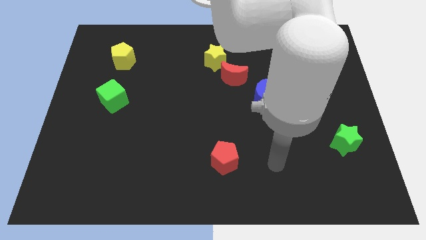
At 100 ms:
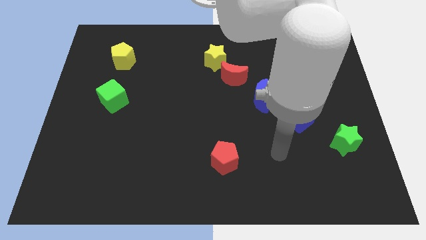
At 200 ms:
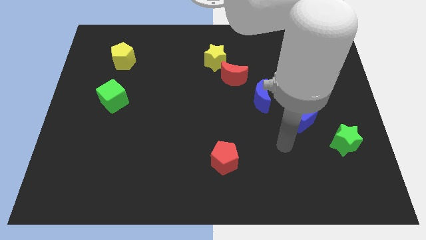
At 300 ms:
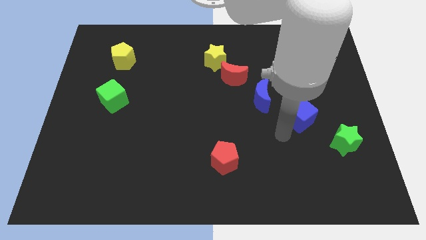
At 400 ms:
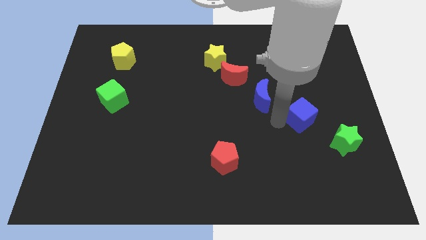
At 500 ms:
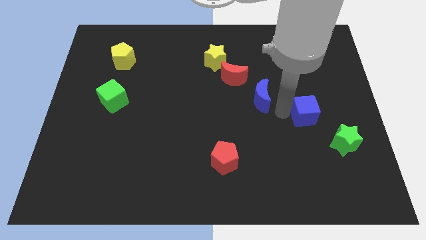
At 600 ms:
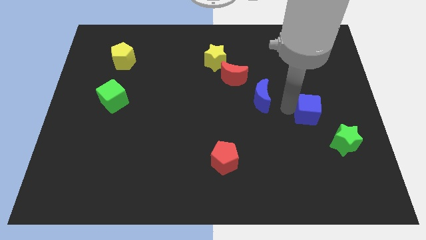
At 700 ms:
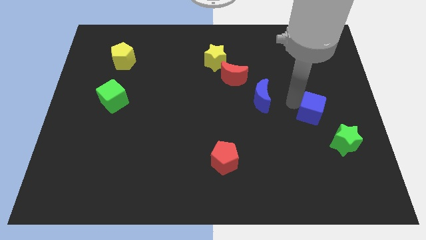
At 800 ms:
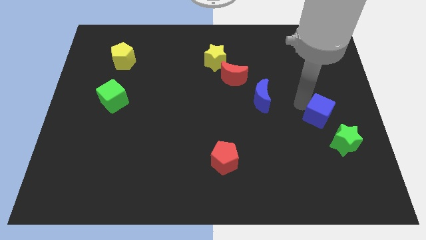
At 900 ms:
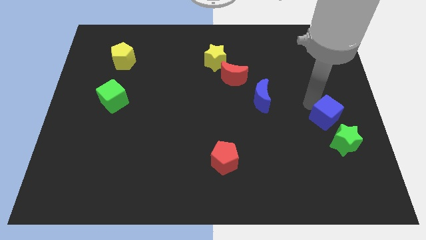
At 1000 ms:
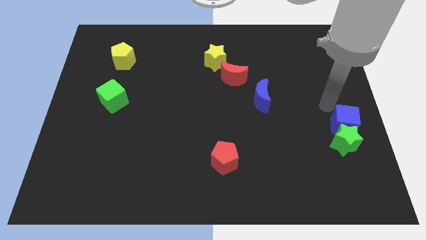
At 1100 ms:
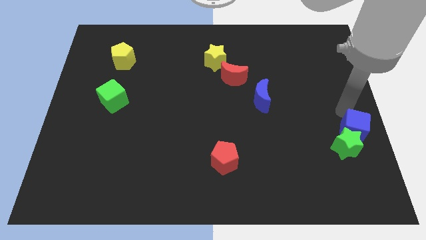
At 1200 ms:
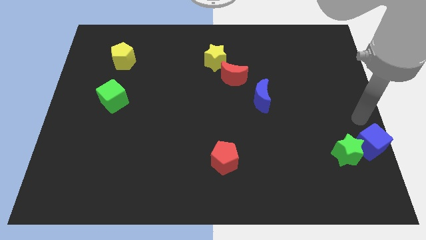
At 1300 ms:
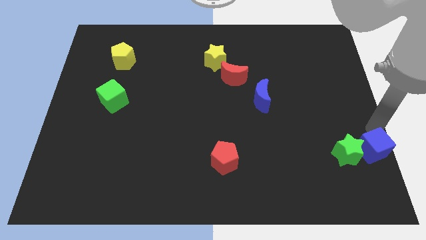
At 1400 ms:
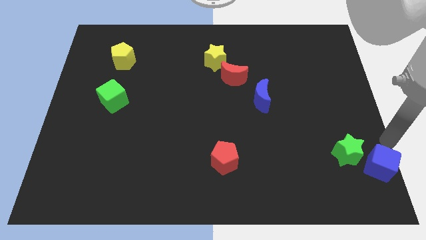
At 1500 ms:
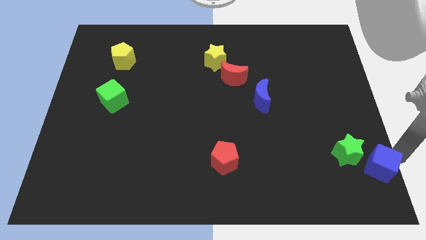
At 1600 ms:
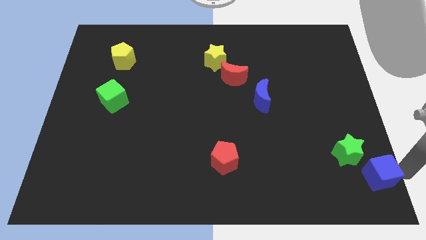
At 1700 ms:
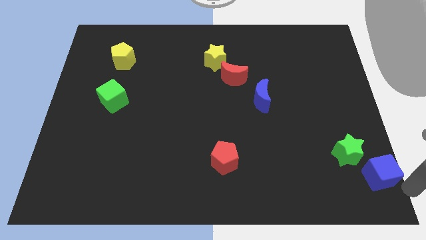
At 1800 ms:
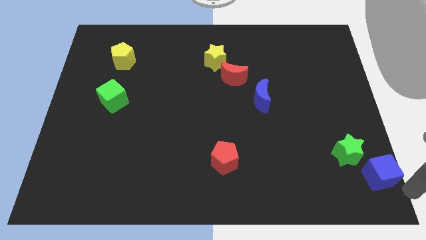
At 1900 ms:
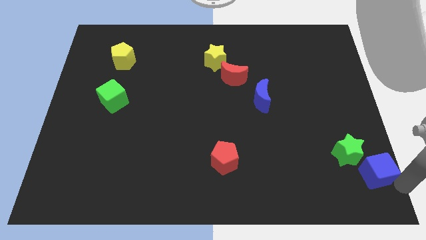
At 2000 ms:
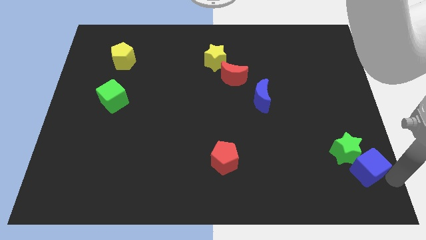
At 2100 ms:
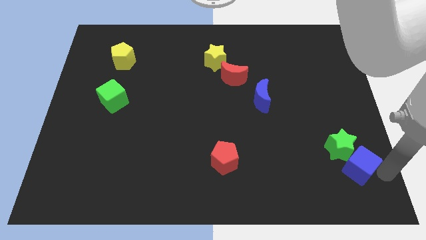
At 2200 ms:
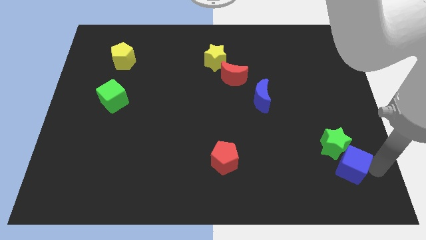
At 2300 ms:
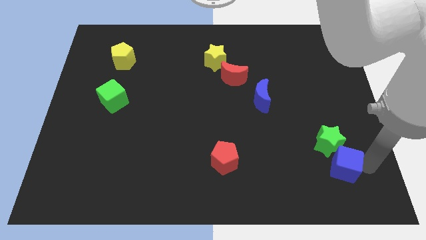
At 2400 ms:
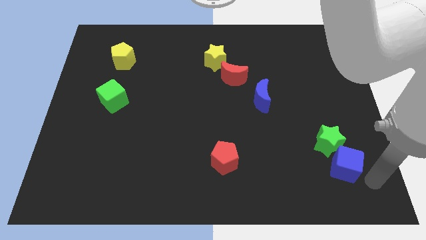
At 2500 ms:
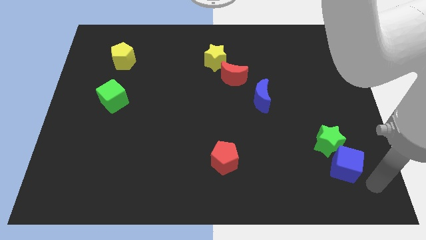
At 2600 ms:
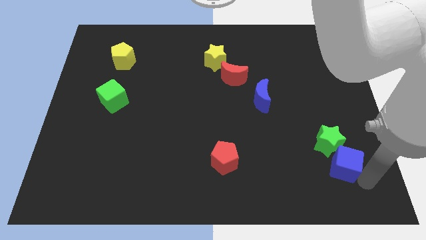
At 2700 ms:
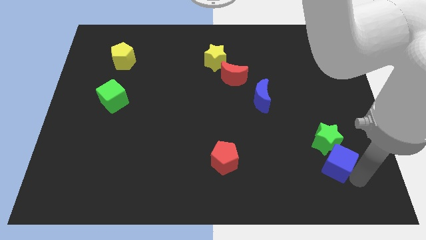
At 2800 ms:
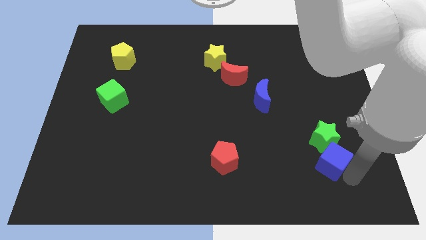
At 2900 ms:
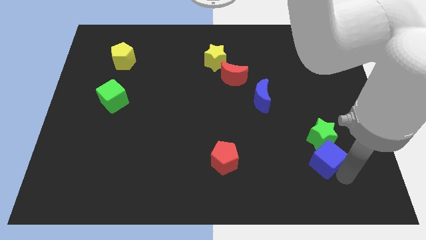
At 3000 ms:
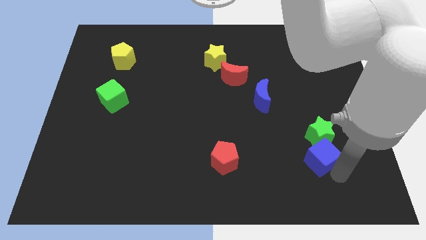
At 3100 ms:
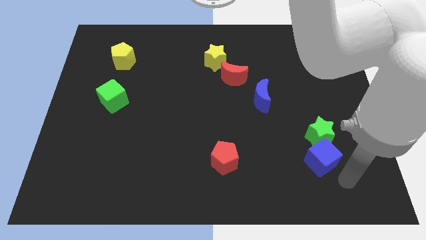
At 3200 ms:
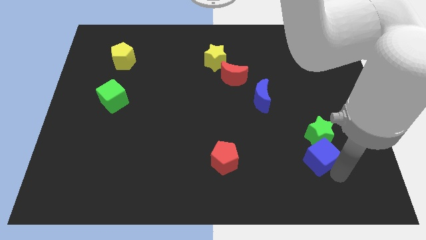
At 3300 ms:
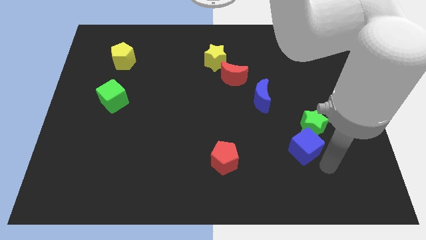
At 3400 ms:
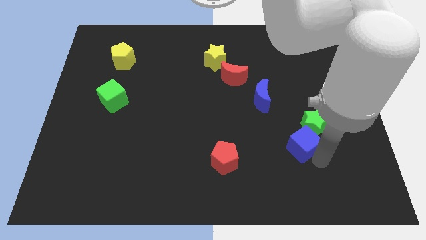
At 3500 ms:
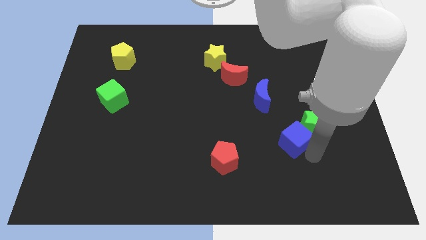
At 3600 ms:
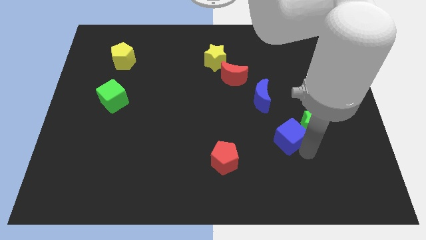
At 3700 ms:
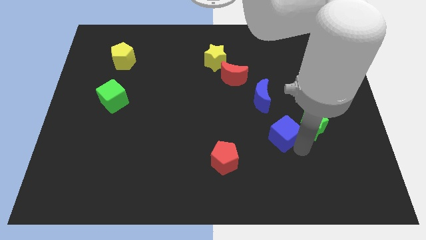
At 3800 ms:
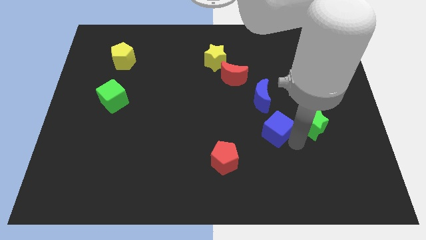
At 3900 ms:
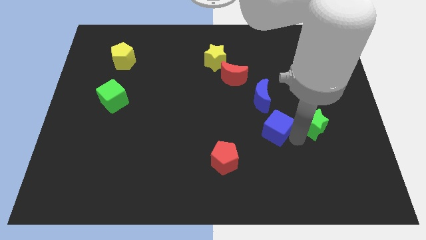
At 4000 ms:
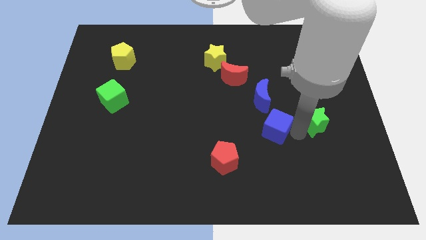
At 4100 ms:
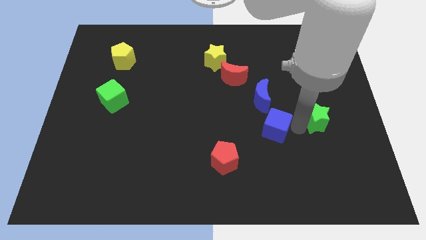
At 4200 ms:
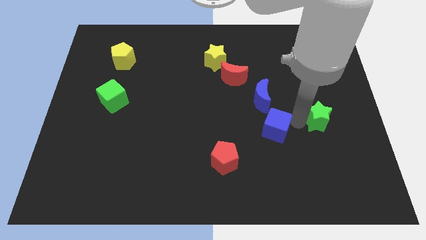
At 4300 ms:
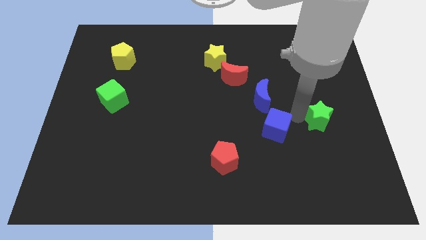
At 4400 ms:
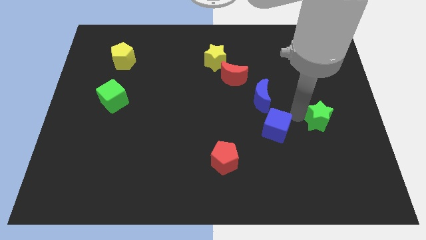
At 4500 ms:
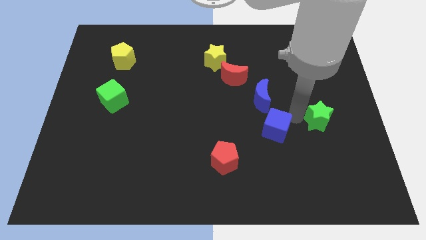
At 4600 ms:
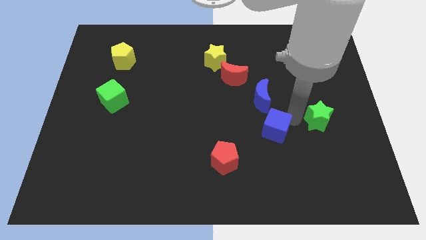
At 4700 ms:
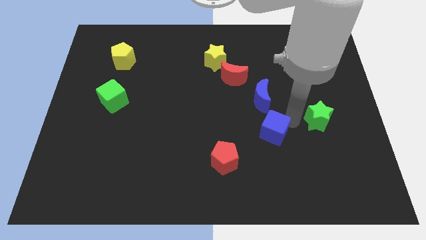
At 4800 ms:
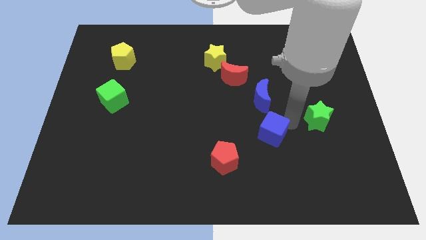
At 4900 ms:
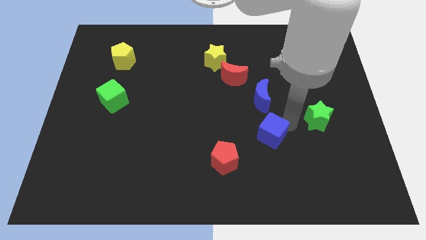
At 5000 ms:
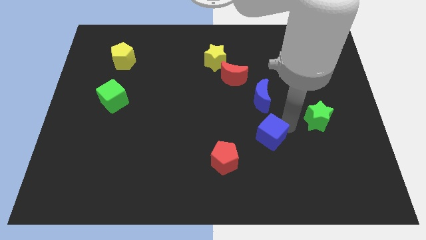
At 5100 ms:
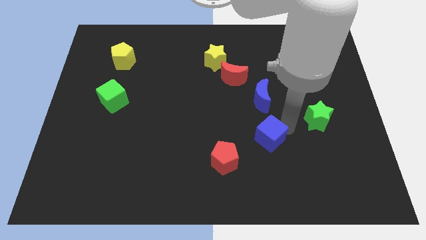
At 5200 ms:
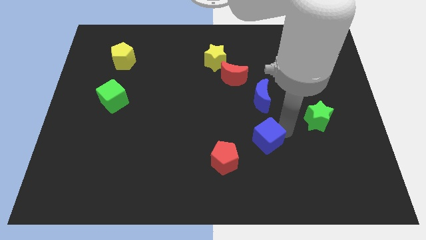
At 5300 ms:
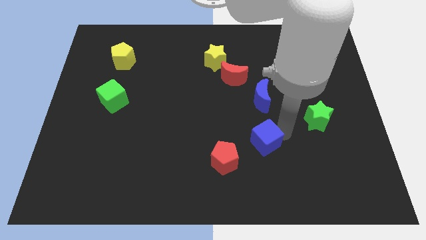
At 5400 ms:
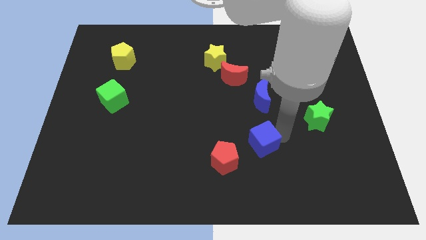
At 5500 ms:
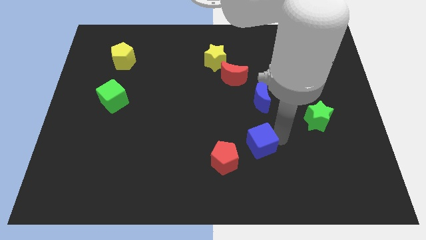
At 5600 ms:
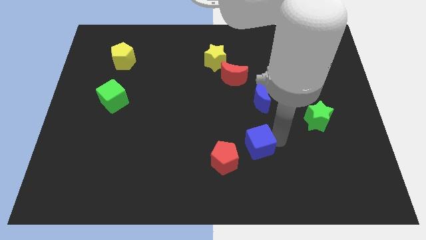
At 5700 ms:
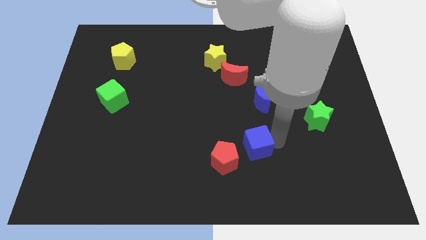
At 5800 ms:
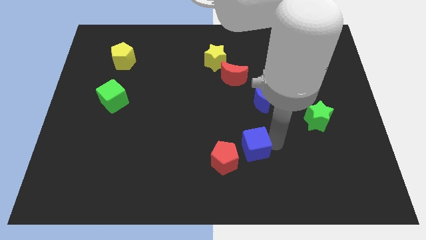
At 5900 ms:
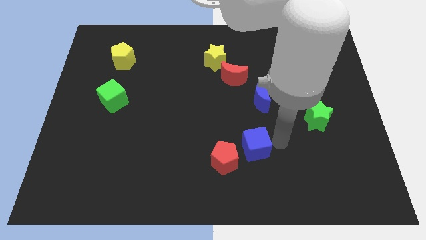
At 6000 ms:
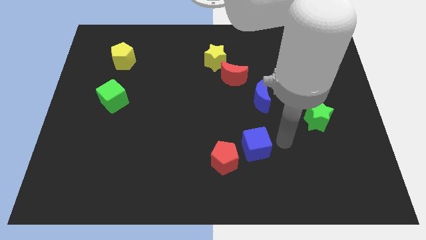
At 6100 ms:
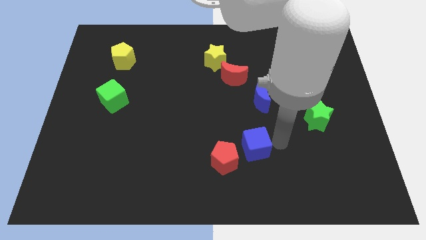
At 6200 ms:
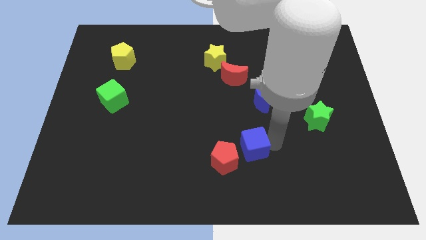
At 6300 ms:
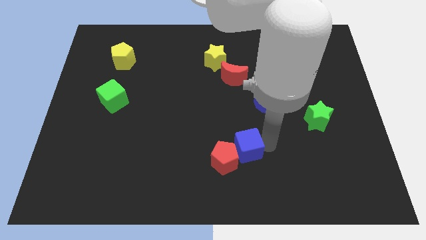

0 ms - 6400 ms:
put the blue cube close to the red pentagon
